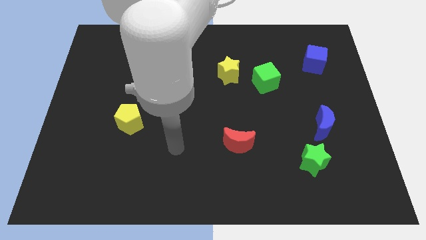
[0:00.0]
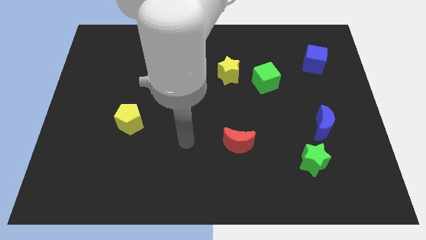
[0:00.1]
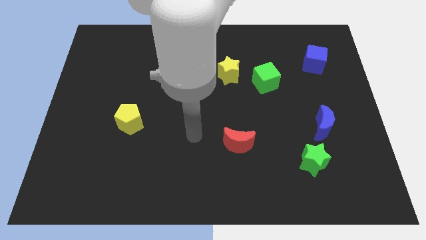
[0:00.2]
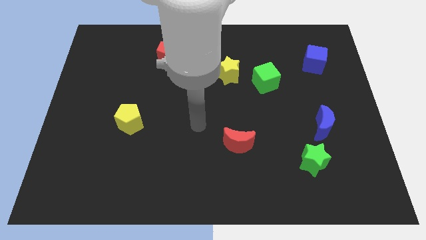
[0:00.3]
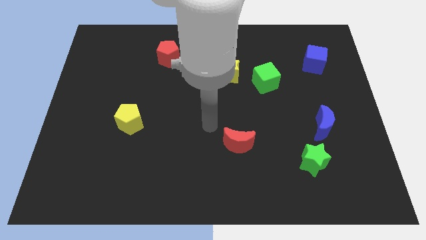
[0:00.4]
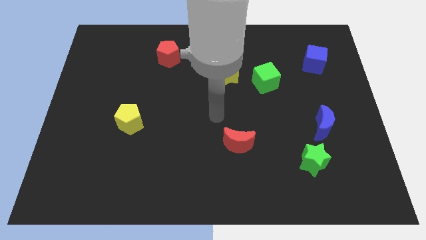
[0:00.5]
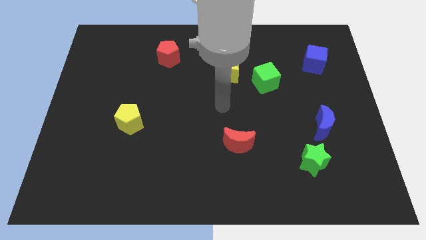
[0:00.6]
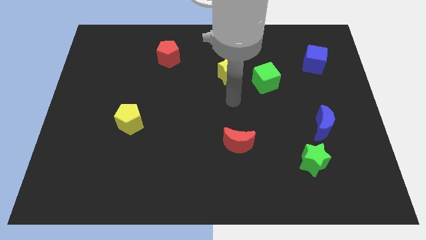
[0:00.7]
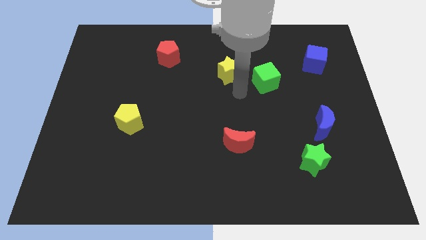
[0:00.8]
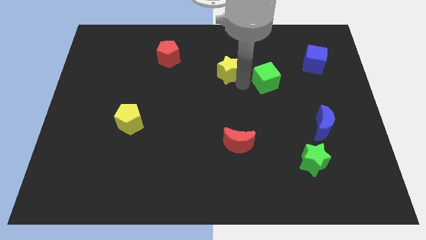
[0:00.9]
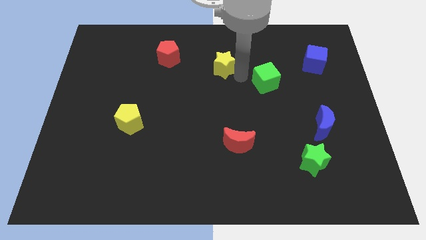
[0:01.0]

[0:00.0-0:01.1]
pull the green cube apart from the yellow star

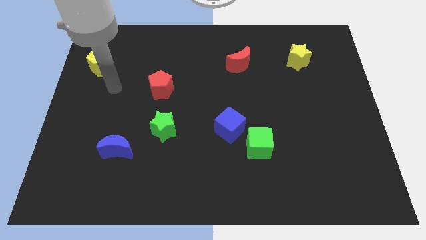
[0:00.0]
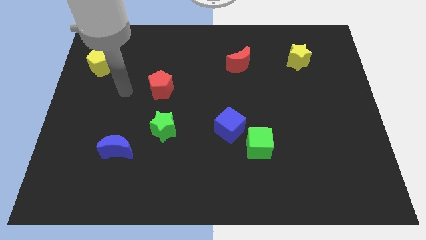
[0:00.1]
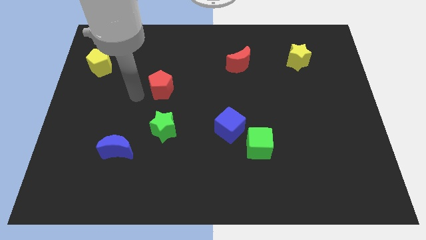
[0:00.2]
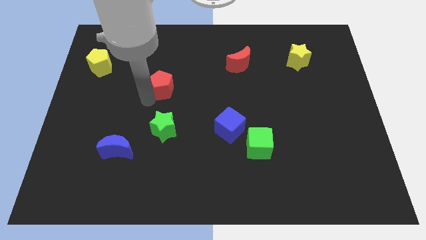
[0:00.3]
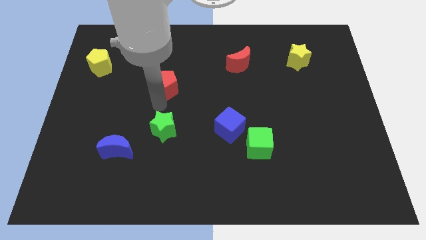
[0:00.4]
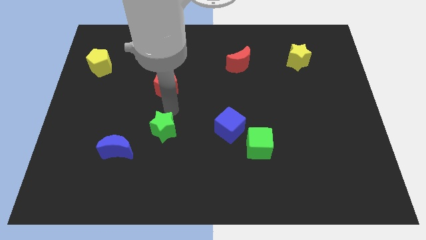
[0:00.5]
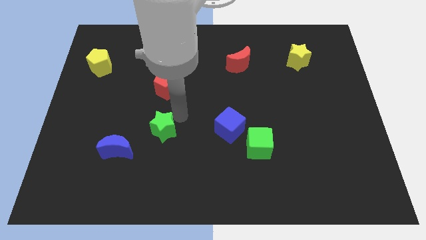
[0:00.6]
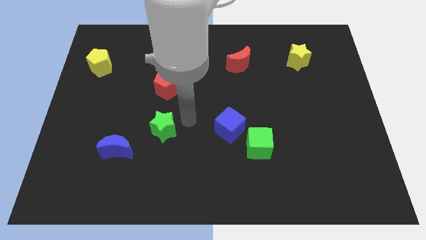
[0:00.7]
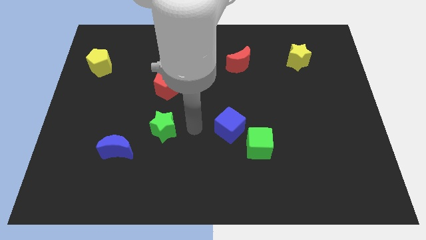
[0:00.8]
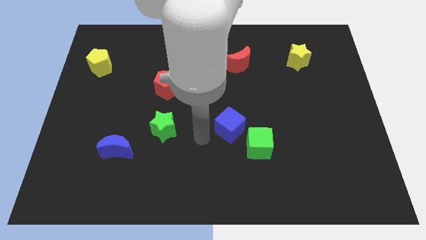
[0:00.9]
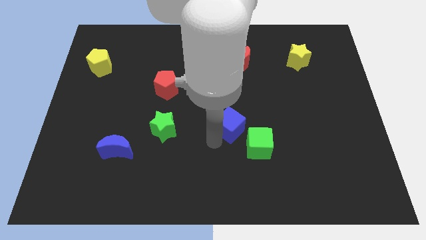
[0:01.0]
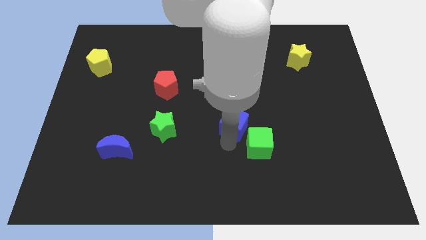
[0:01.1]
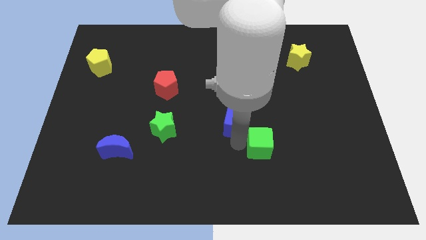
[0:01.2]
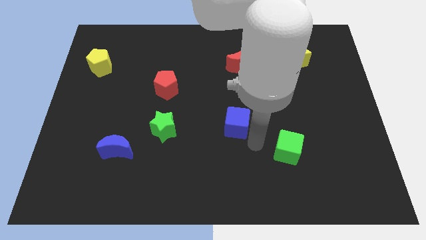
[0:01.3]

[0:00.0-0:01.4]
pull the blue cube apart from the green cube

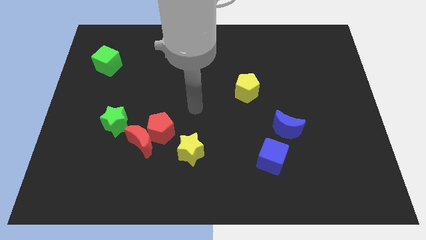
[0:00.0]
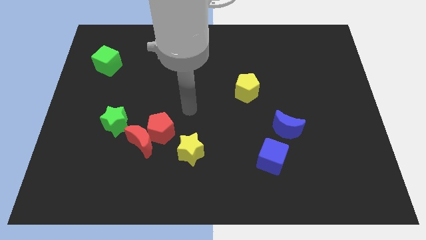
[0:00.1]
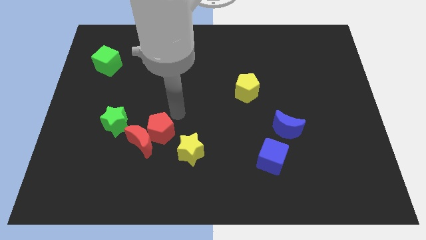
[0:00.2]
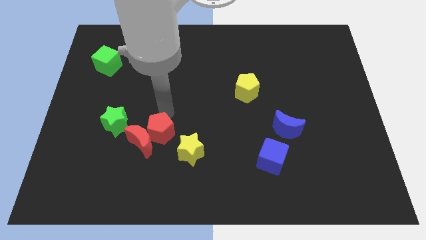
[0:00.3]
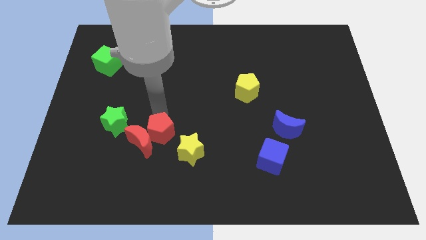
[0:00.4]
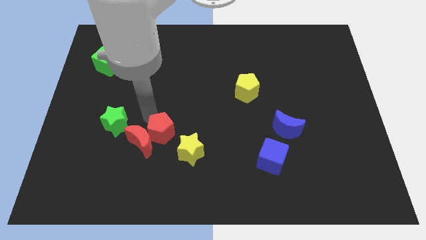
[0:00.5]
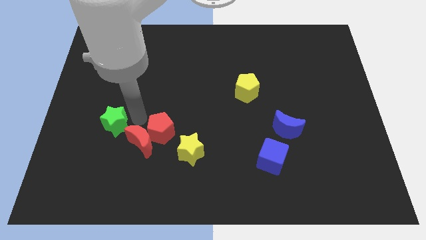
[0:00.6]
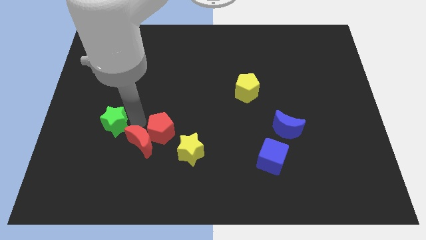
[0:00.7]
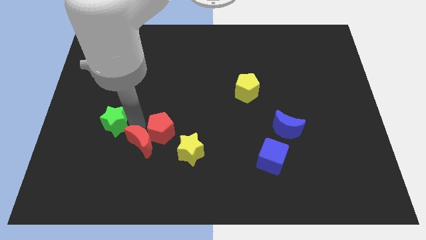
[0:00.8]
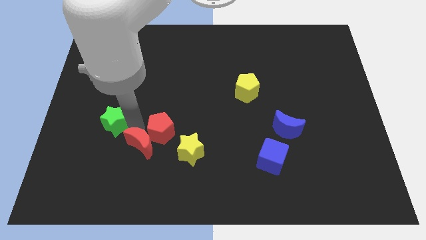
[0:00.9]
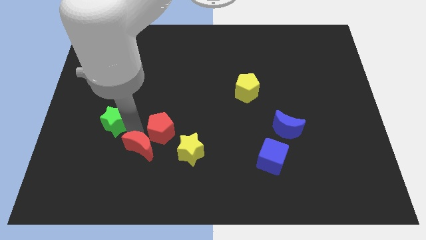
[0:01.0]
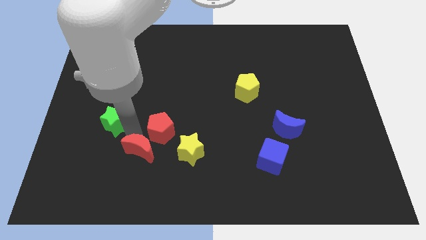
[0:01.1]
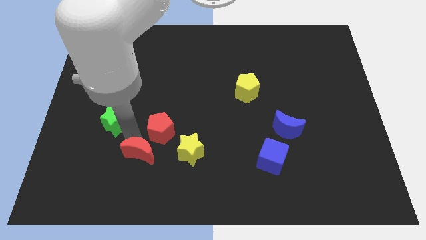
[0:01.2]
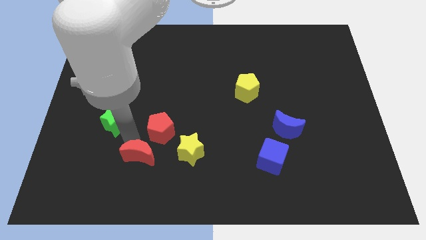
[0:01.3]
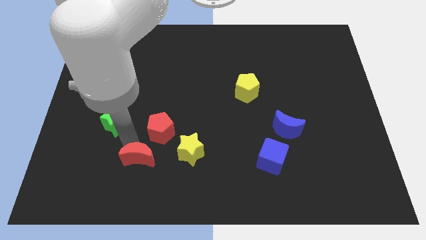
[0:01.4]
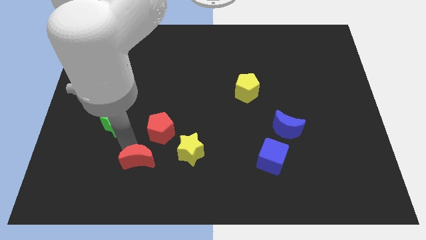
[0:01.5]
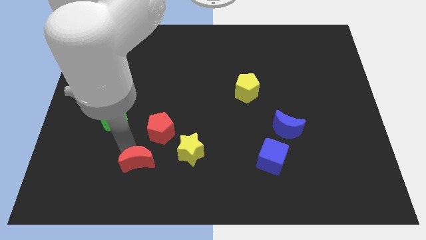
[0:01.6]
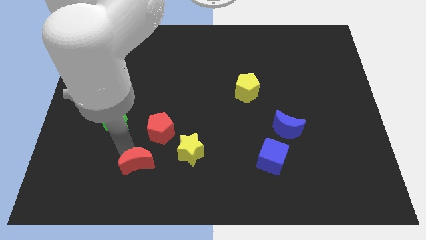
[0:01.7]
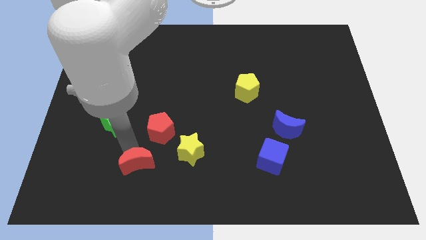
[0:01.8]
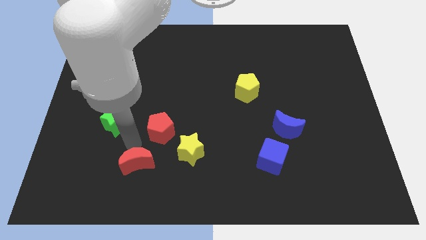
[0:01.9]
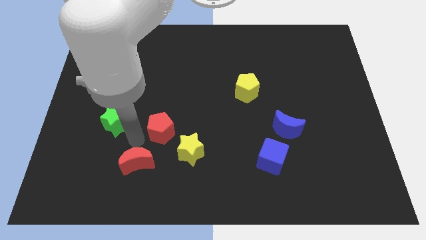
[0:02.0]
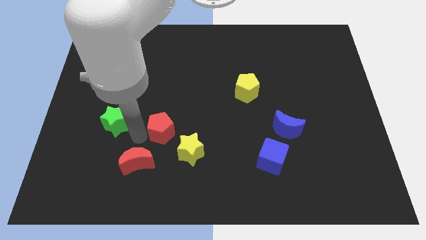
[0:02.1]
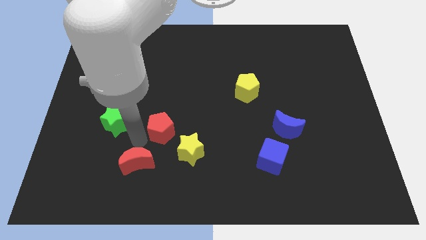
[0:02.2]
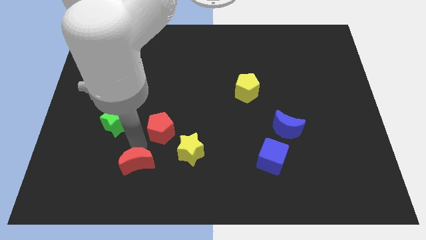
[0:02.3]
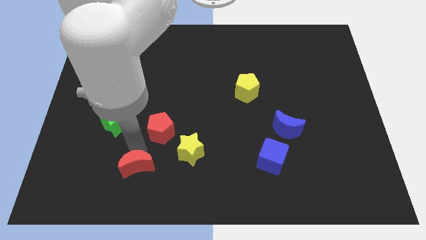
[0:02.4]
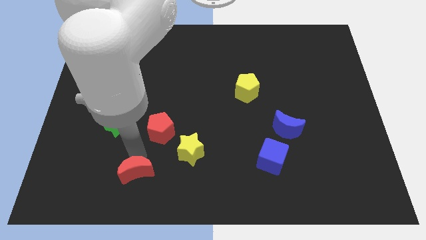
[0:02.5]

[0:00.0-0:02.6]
move the red moon away from the red pentagon and green star

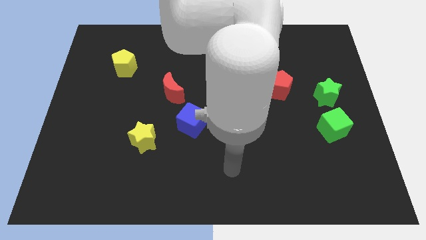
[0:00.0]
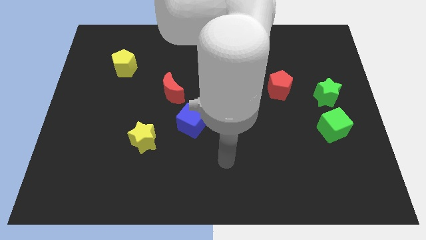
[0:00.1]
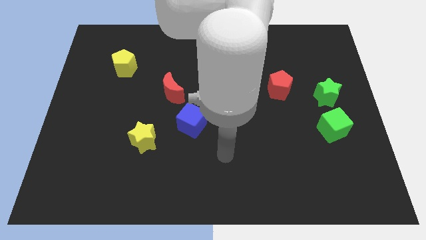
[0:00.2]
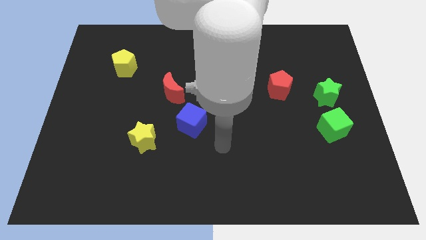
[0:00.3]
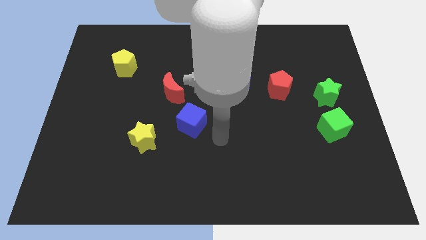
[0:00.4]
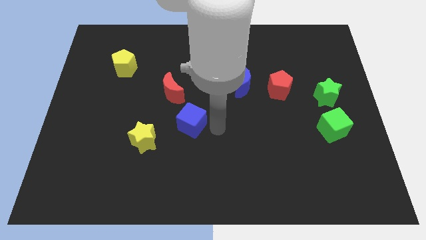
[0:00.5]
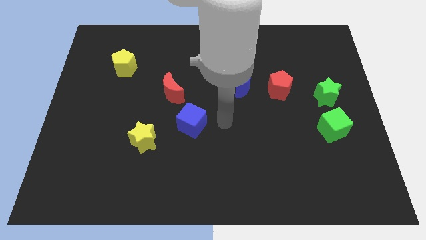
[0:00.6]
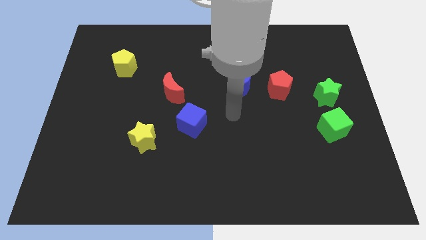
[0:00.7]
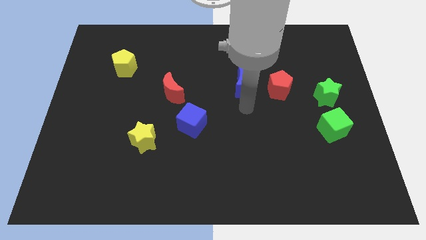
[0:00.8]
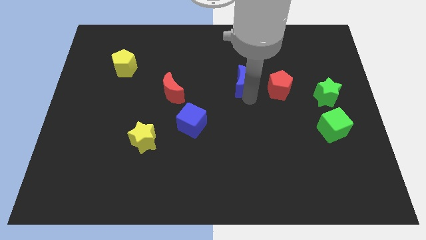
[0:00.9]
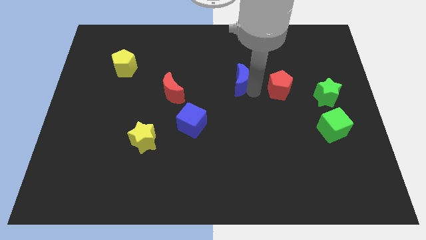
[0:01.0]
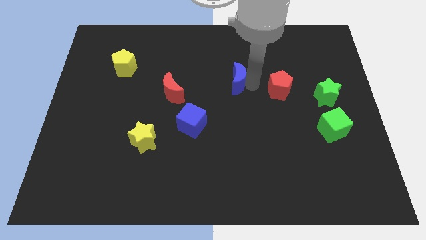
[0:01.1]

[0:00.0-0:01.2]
separate the red pentagon from the blue moon

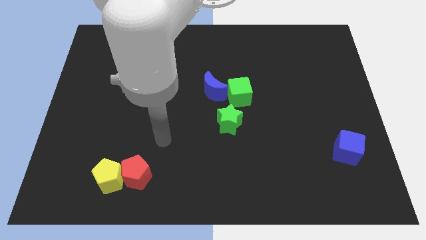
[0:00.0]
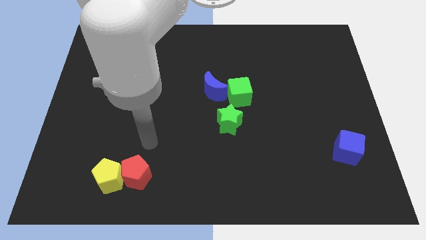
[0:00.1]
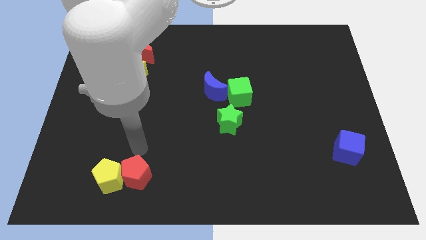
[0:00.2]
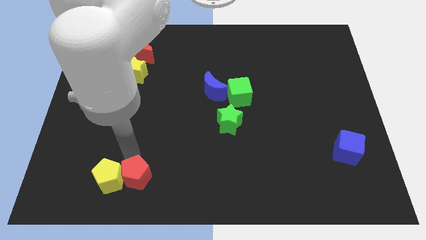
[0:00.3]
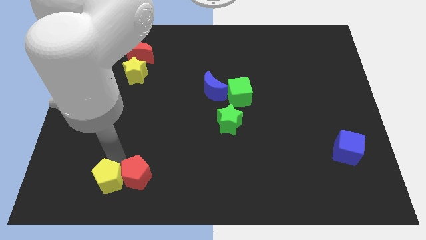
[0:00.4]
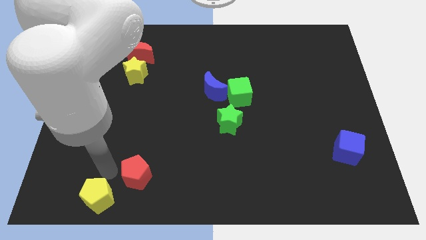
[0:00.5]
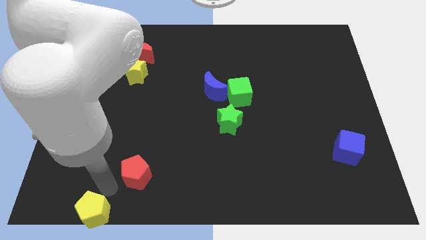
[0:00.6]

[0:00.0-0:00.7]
pull the red pentagon apart from the yellow pentagon

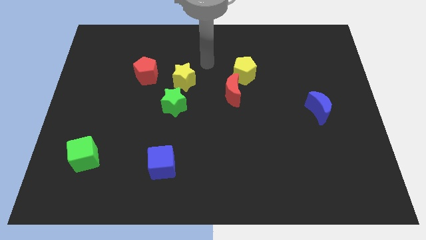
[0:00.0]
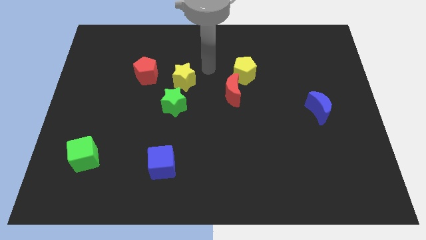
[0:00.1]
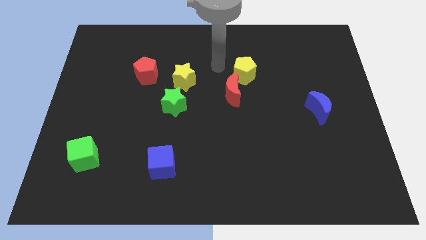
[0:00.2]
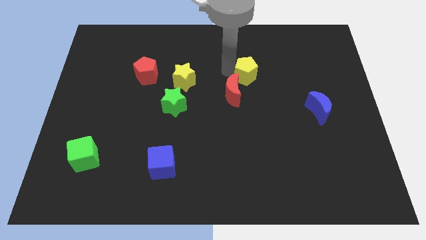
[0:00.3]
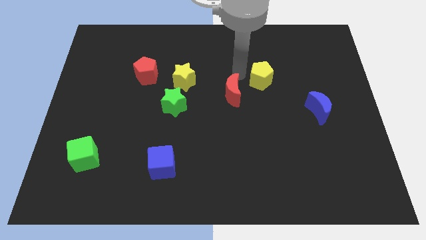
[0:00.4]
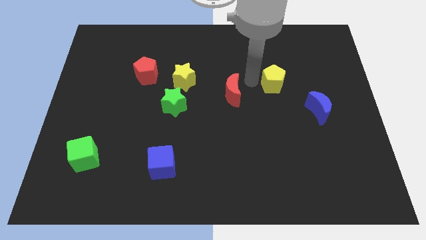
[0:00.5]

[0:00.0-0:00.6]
move the red moon away from the yellow pentagon

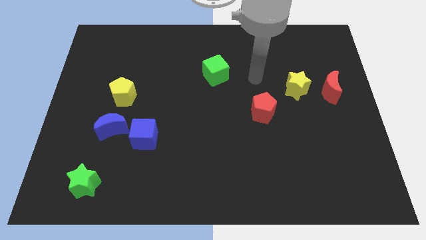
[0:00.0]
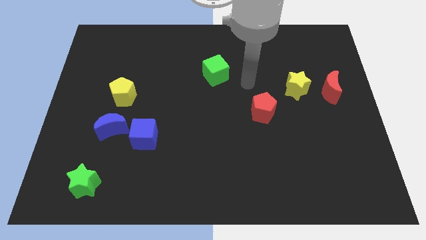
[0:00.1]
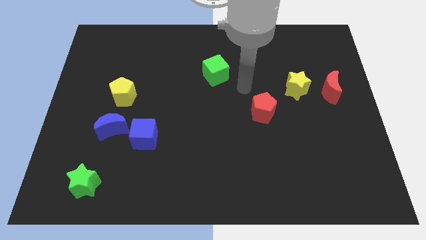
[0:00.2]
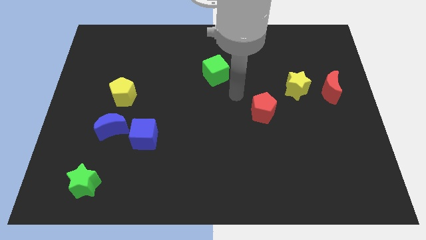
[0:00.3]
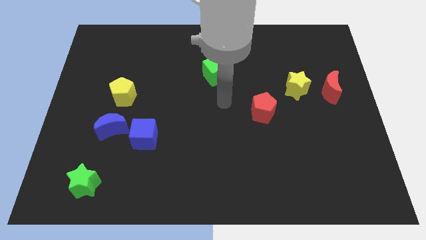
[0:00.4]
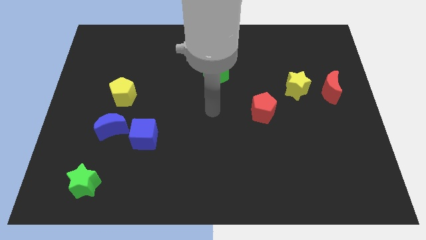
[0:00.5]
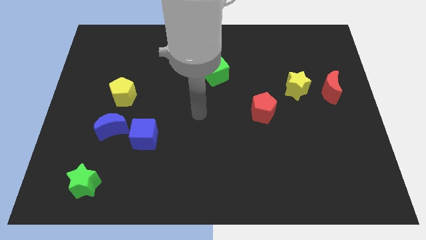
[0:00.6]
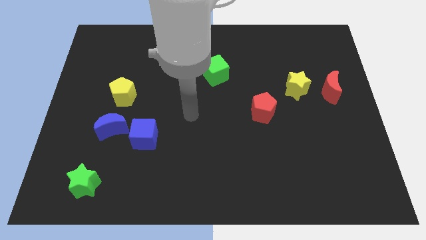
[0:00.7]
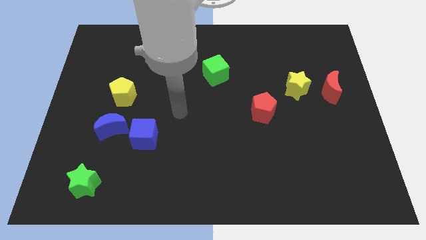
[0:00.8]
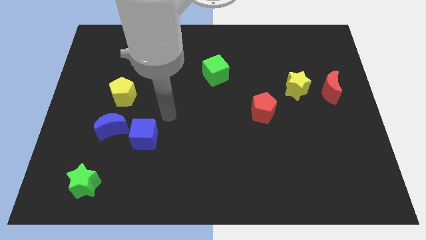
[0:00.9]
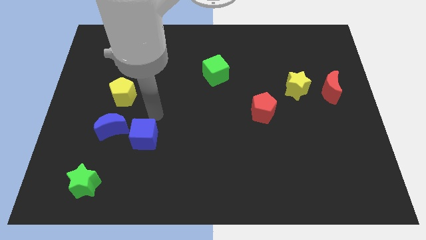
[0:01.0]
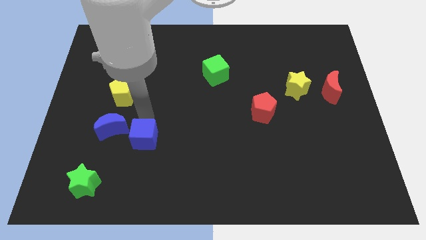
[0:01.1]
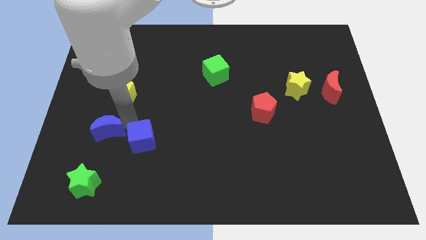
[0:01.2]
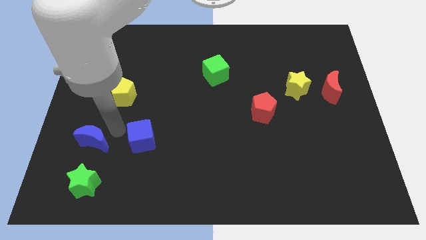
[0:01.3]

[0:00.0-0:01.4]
separate the blue cube from the blue moon

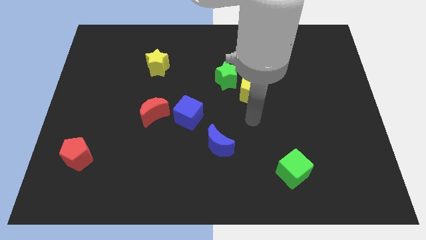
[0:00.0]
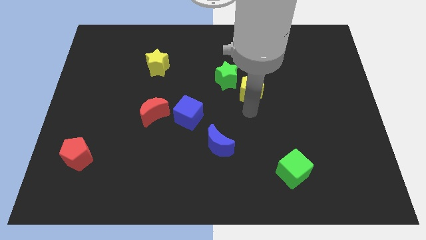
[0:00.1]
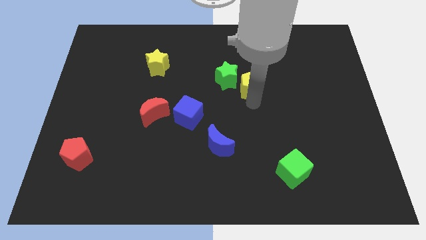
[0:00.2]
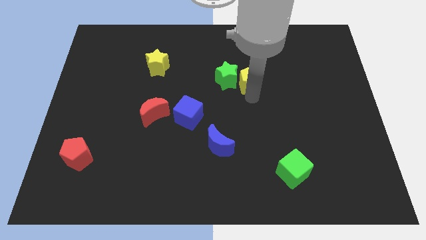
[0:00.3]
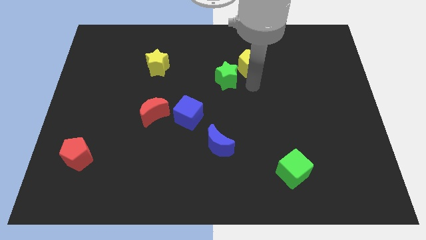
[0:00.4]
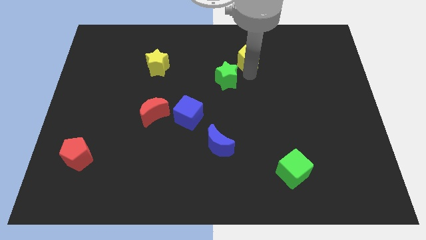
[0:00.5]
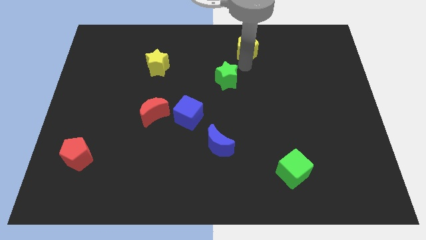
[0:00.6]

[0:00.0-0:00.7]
pull the green star apart from the yellow pentagon
